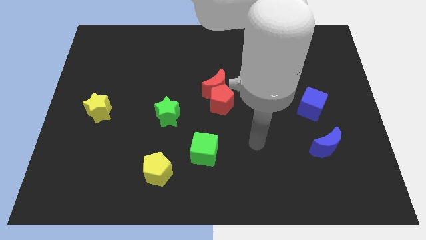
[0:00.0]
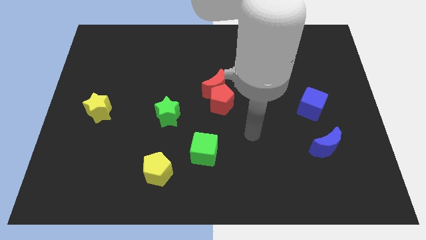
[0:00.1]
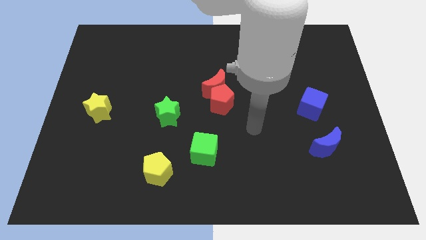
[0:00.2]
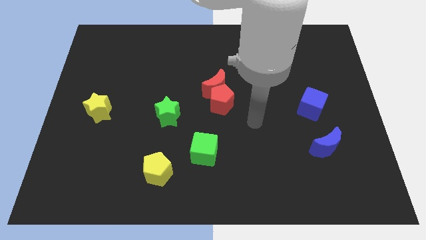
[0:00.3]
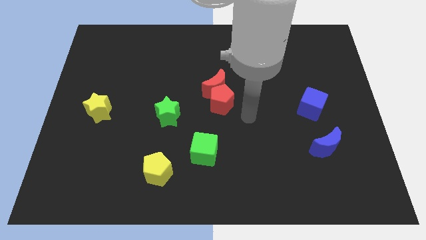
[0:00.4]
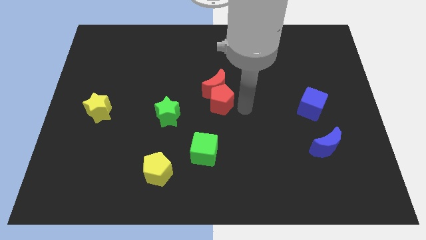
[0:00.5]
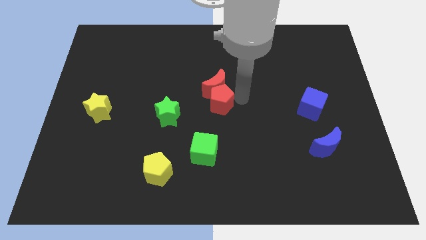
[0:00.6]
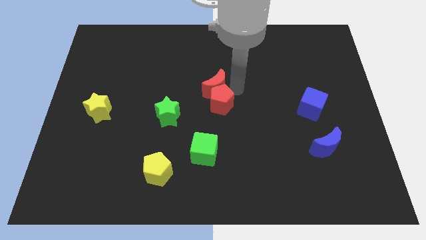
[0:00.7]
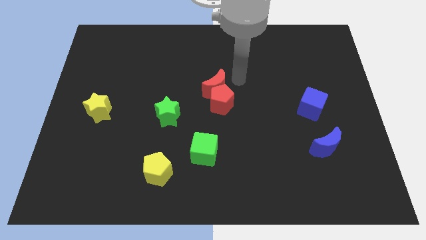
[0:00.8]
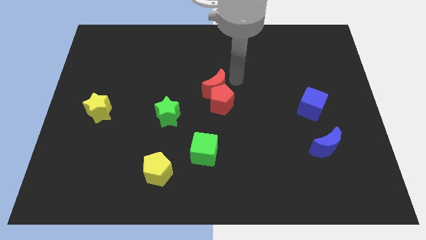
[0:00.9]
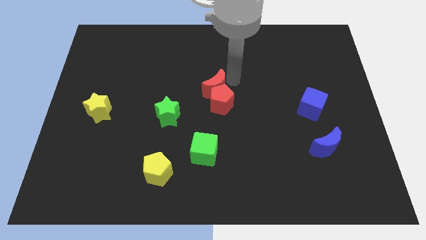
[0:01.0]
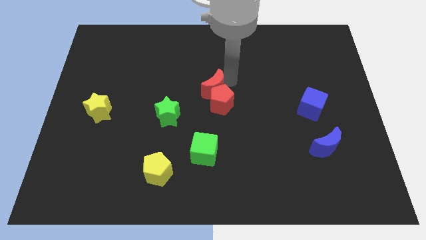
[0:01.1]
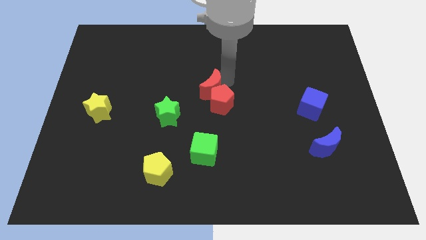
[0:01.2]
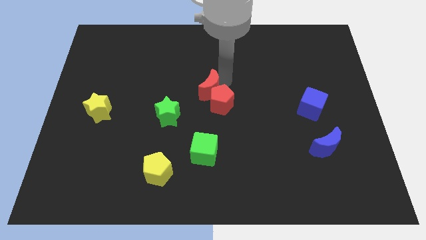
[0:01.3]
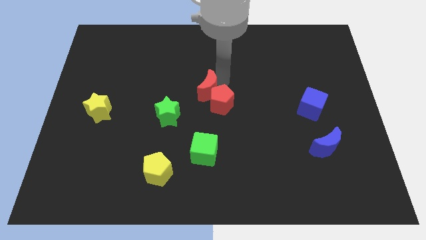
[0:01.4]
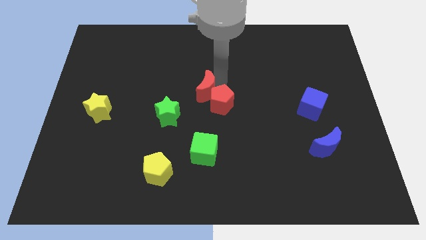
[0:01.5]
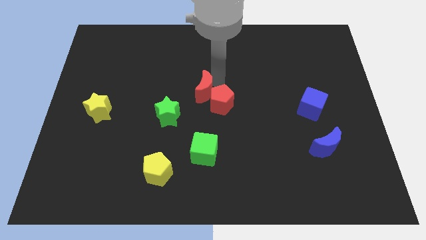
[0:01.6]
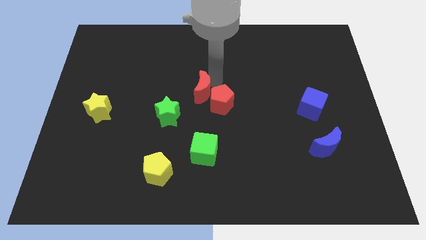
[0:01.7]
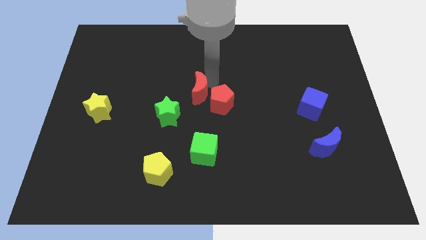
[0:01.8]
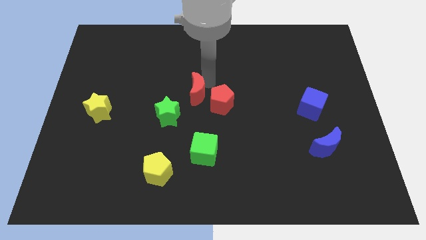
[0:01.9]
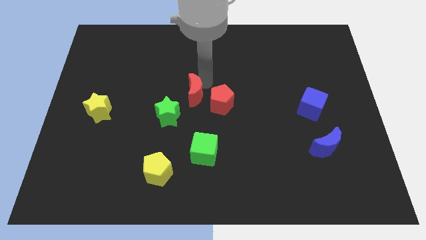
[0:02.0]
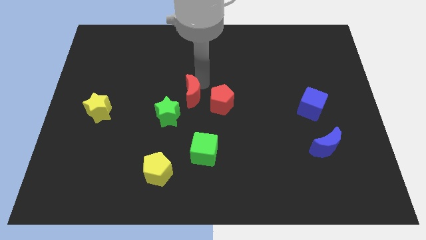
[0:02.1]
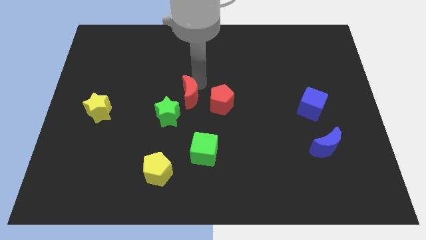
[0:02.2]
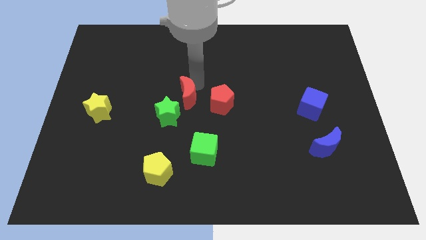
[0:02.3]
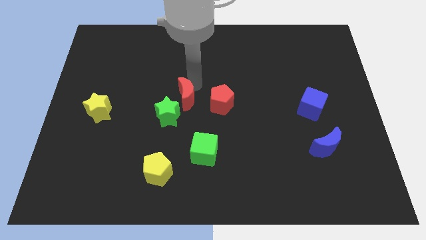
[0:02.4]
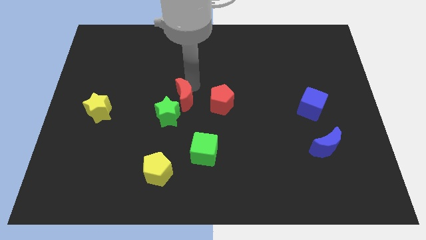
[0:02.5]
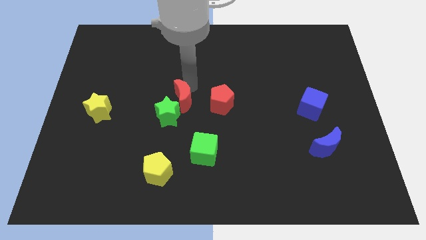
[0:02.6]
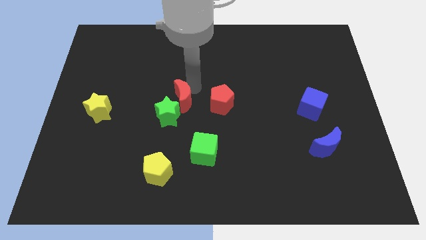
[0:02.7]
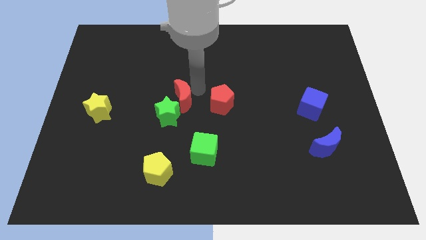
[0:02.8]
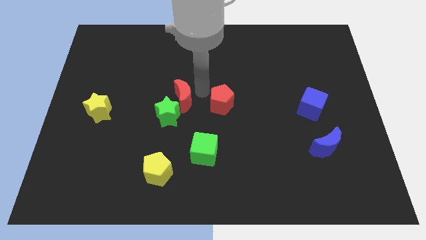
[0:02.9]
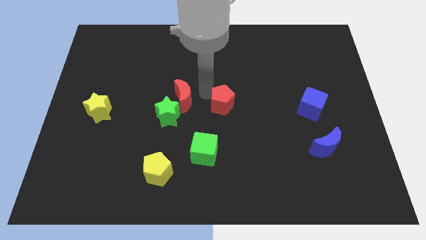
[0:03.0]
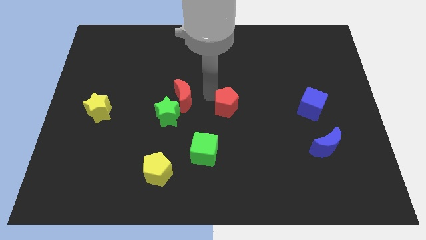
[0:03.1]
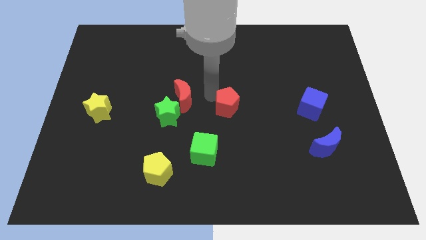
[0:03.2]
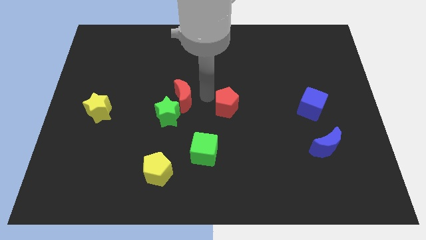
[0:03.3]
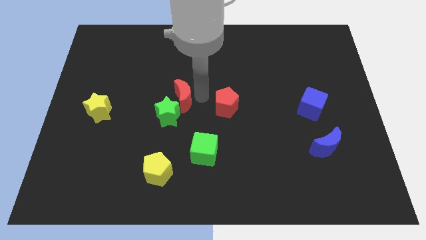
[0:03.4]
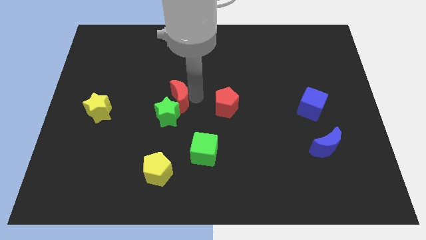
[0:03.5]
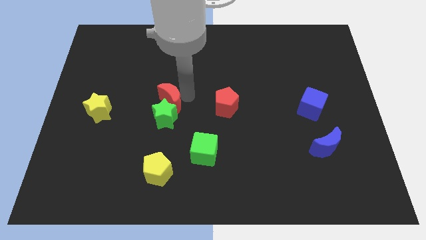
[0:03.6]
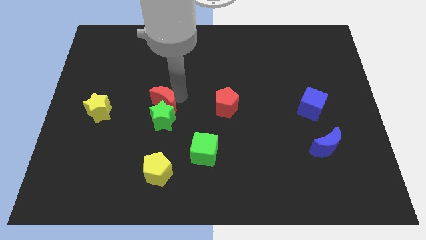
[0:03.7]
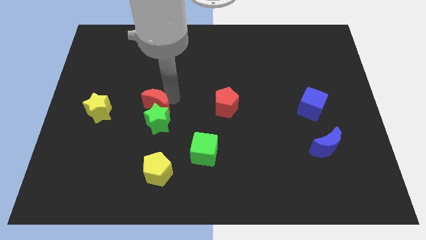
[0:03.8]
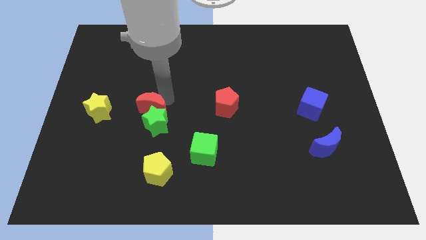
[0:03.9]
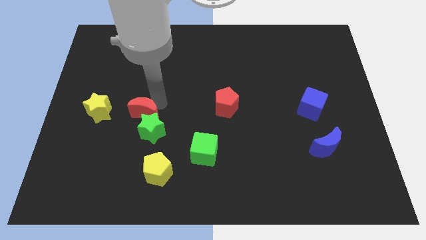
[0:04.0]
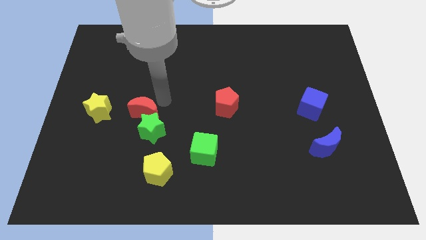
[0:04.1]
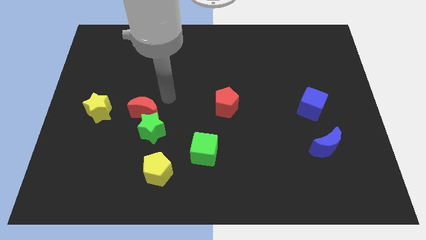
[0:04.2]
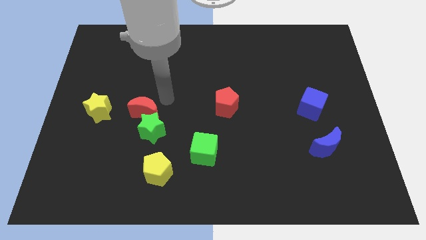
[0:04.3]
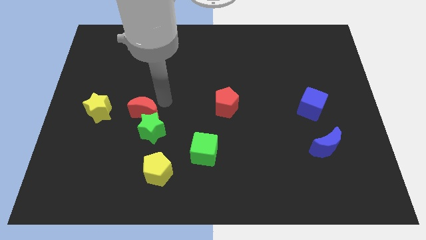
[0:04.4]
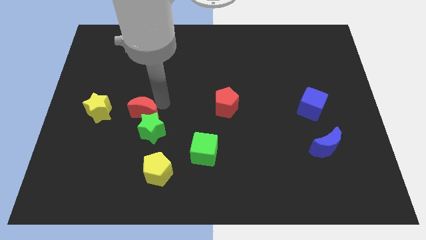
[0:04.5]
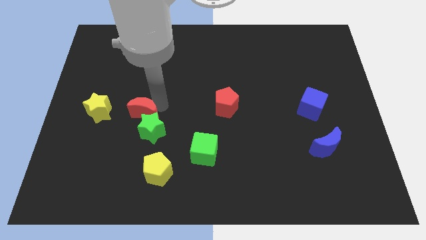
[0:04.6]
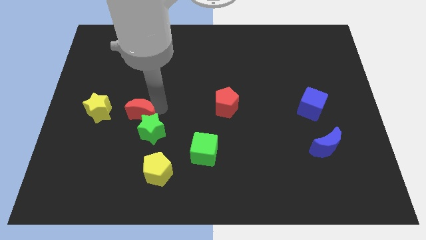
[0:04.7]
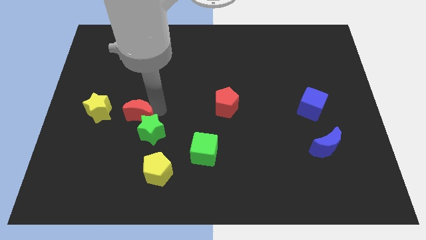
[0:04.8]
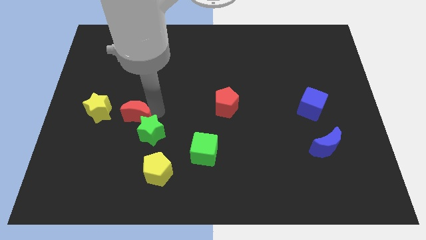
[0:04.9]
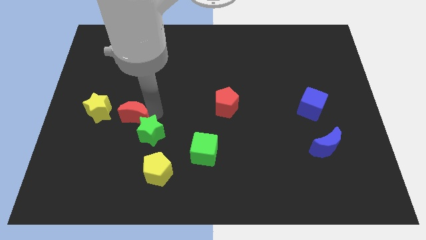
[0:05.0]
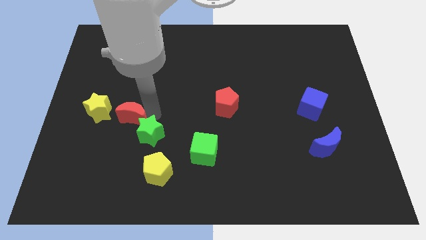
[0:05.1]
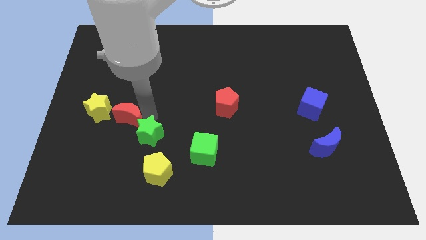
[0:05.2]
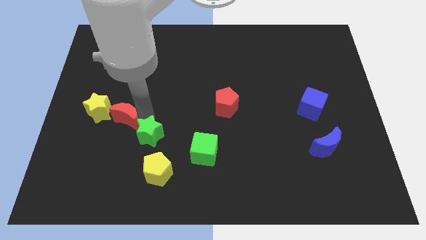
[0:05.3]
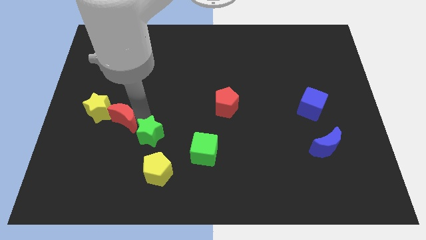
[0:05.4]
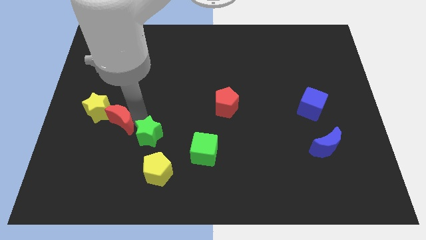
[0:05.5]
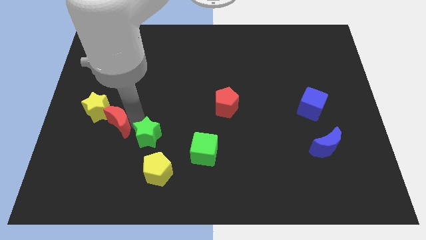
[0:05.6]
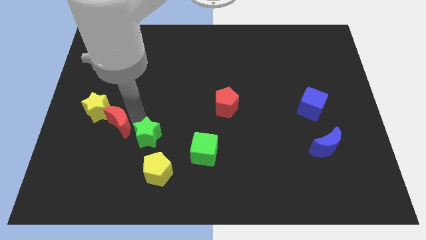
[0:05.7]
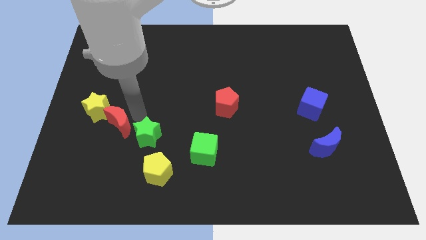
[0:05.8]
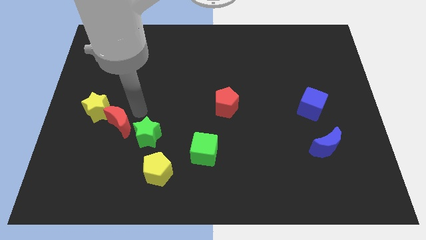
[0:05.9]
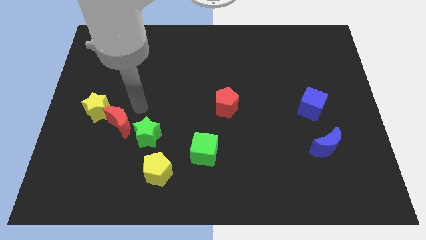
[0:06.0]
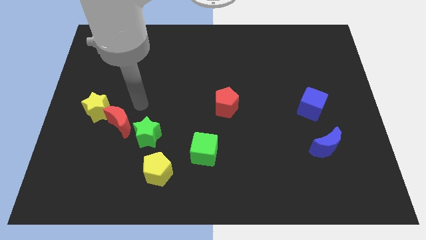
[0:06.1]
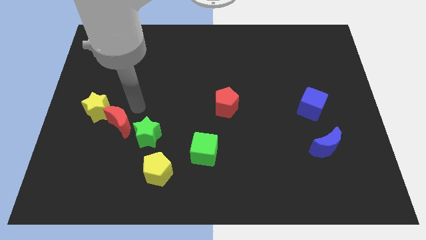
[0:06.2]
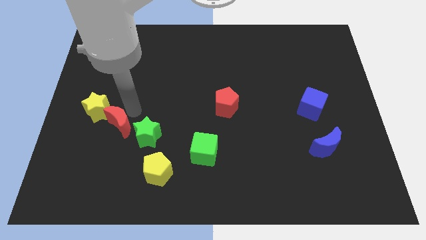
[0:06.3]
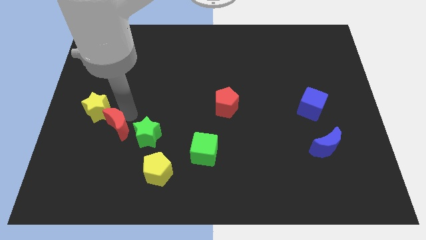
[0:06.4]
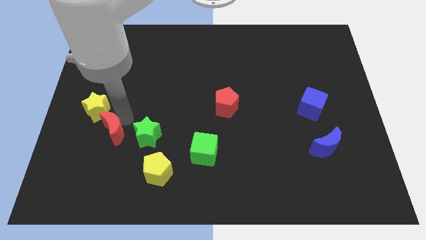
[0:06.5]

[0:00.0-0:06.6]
slide the red moon below the yellow star

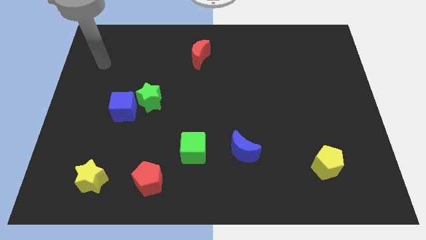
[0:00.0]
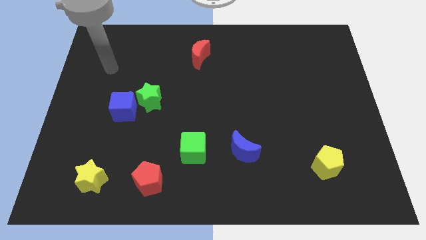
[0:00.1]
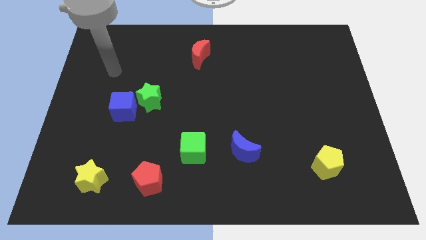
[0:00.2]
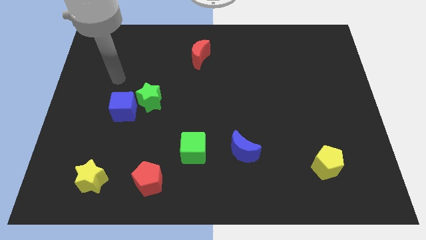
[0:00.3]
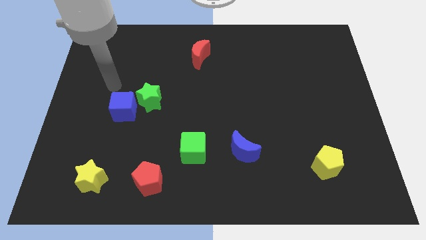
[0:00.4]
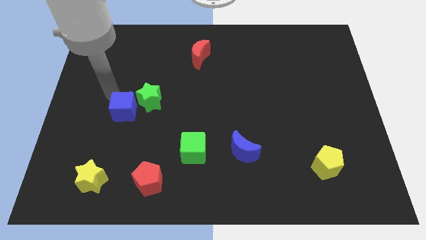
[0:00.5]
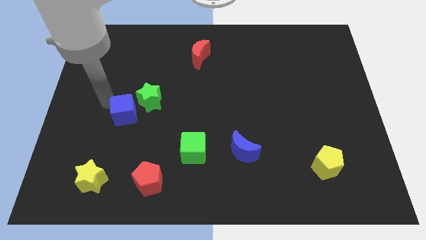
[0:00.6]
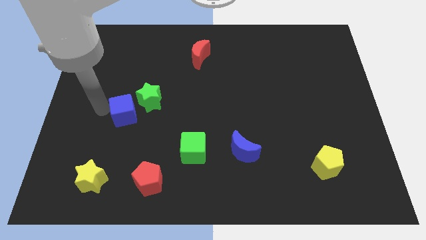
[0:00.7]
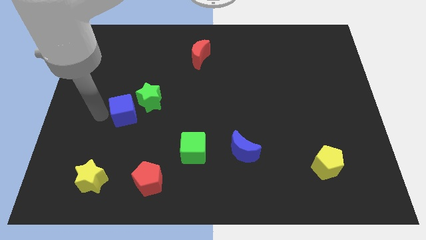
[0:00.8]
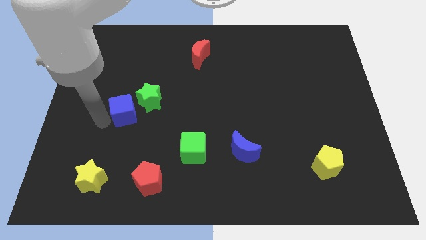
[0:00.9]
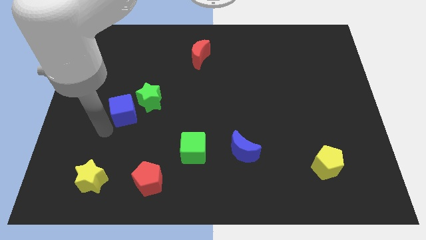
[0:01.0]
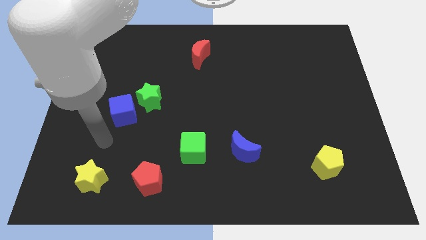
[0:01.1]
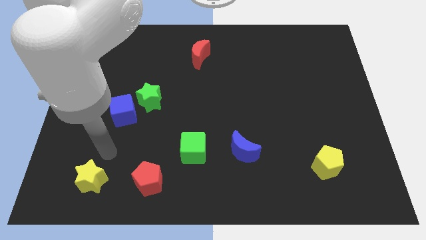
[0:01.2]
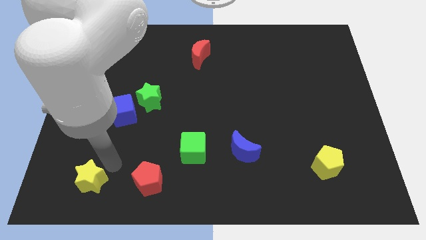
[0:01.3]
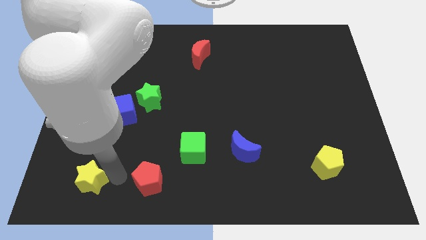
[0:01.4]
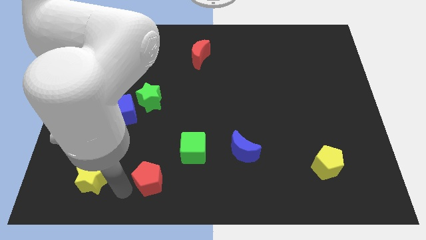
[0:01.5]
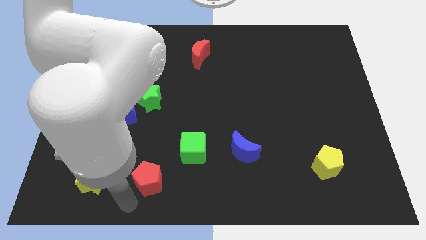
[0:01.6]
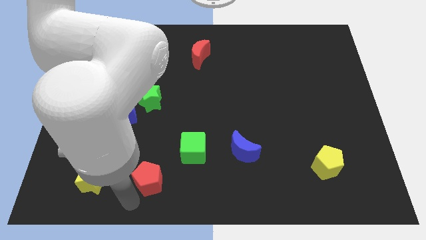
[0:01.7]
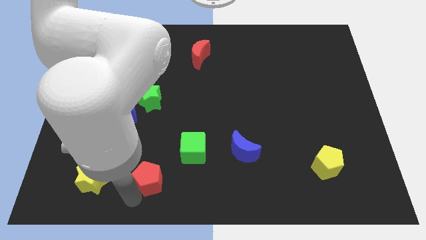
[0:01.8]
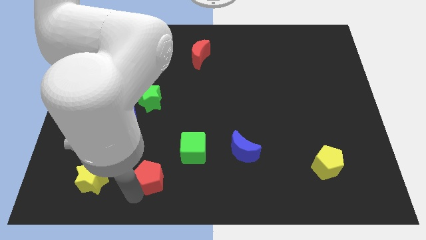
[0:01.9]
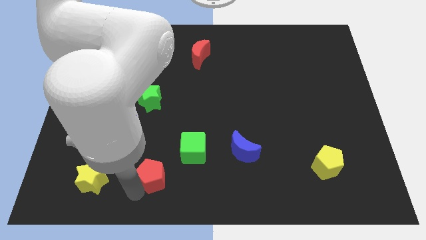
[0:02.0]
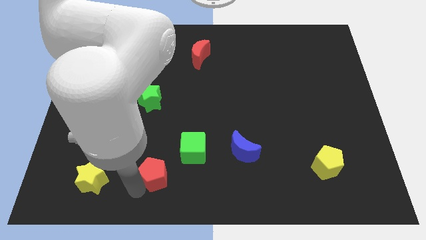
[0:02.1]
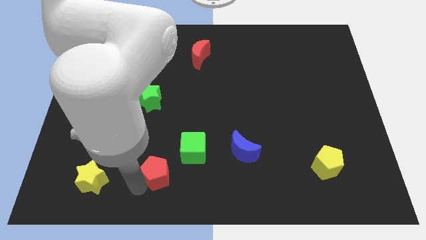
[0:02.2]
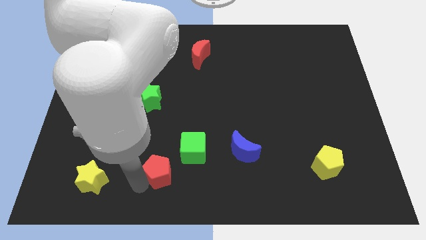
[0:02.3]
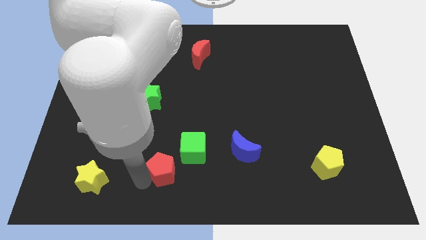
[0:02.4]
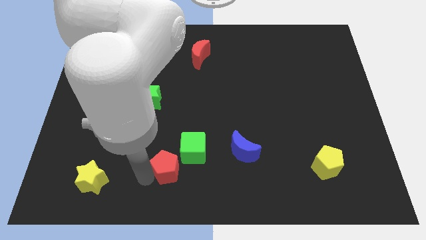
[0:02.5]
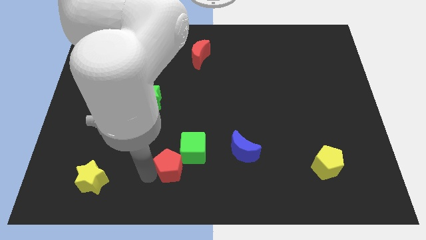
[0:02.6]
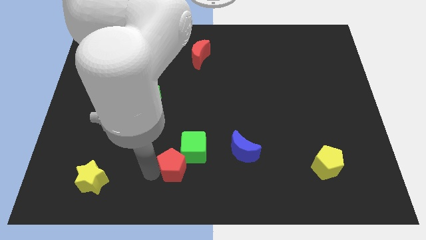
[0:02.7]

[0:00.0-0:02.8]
push the red pentagon to the left side of the blue moon
